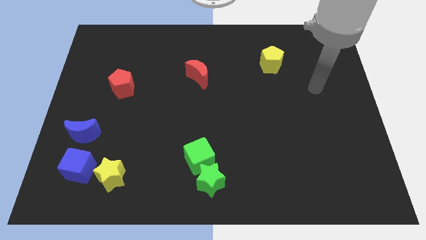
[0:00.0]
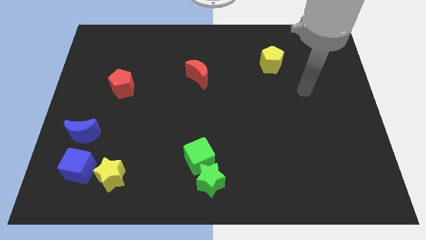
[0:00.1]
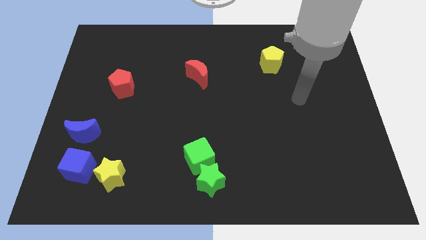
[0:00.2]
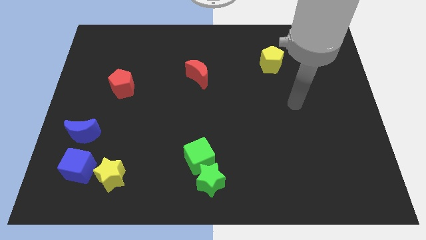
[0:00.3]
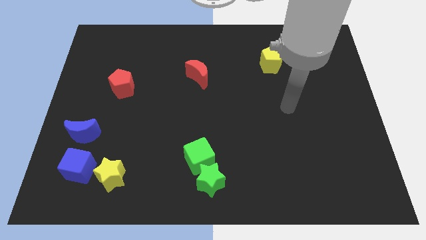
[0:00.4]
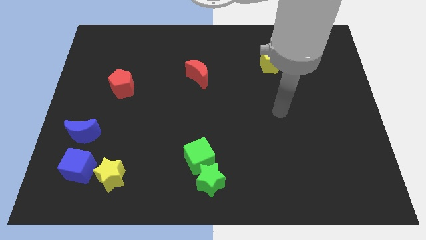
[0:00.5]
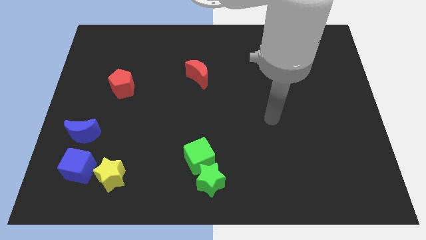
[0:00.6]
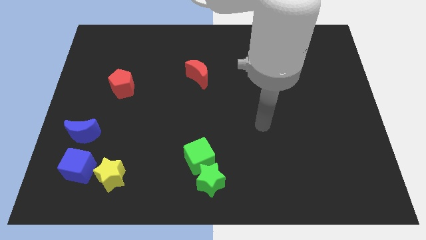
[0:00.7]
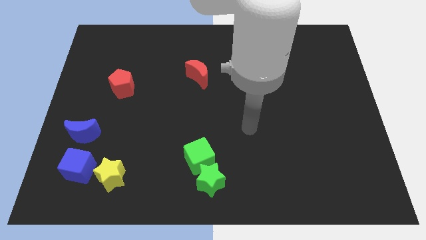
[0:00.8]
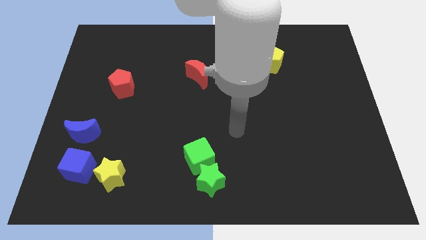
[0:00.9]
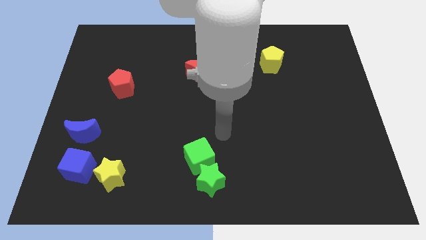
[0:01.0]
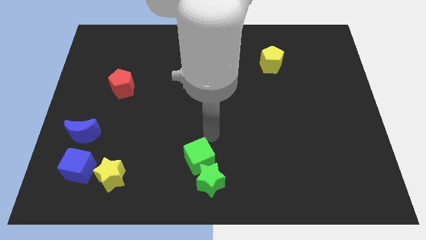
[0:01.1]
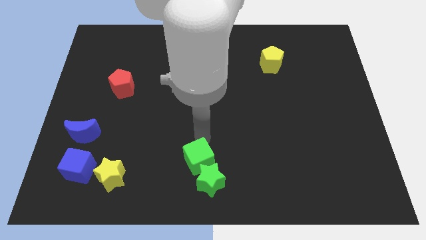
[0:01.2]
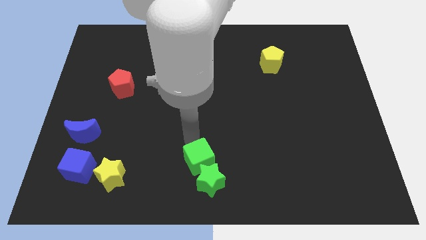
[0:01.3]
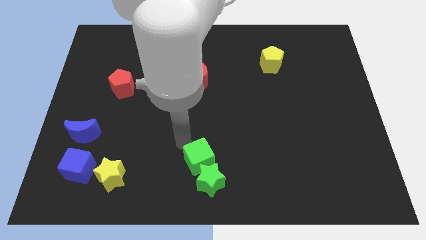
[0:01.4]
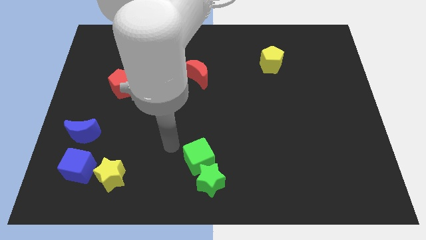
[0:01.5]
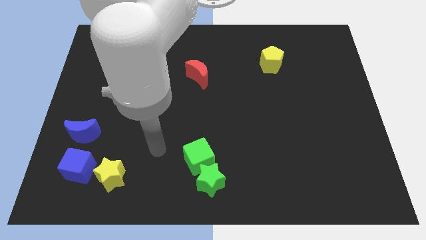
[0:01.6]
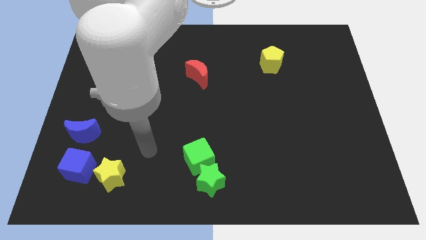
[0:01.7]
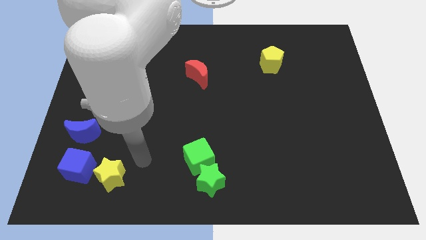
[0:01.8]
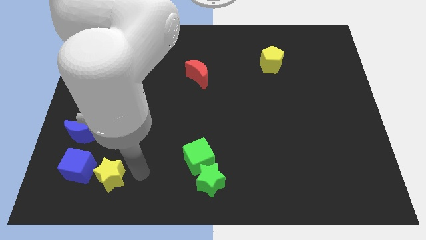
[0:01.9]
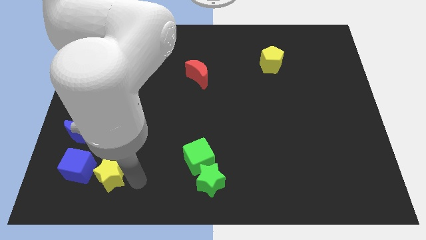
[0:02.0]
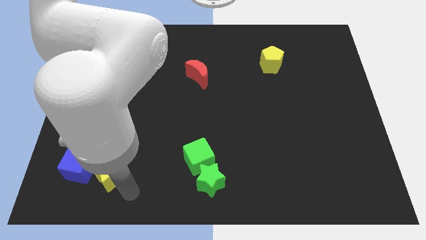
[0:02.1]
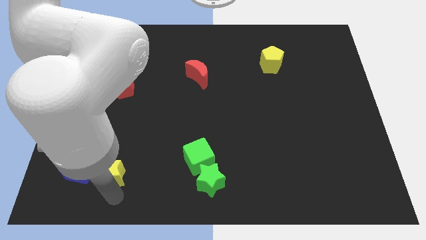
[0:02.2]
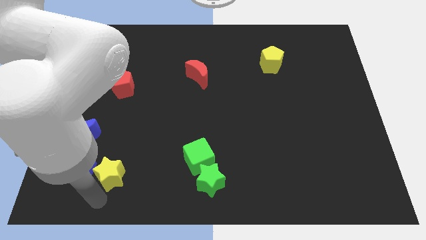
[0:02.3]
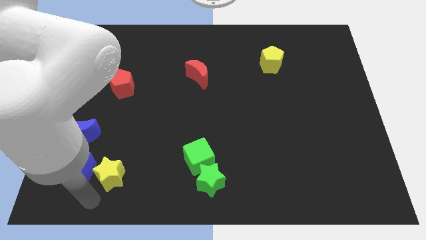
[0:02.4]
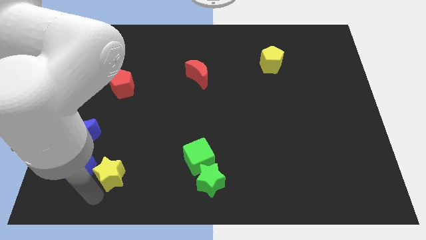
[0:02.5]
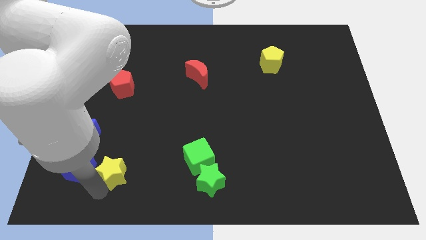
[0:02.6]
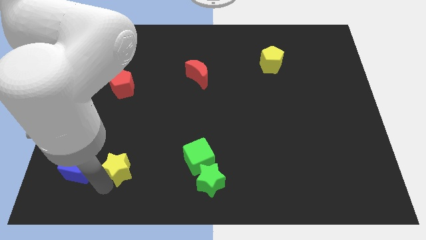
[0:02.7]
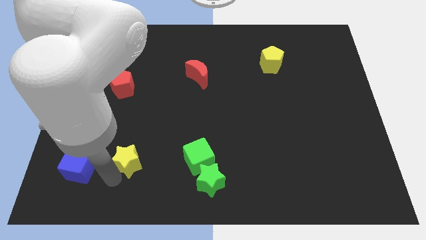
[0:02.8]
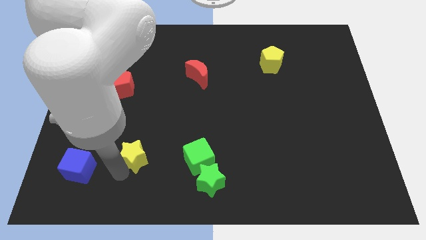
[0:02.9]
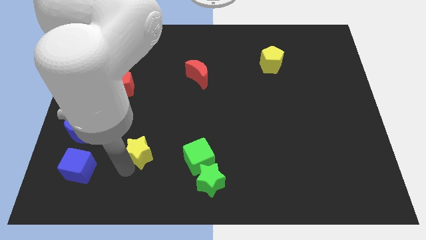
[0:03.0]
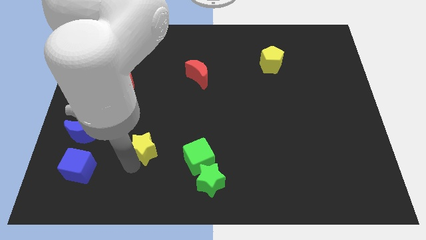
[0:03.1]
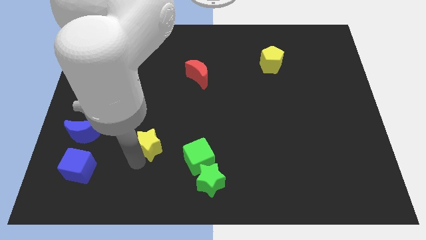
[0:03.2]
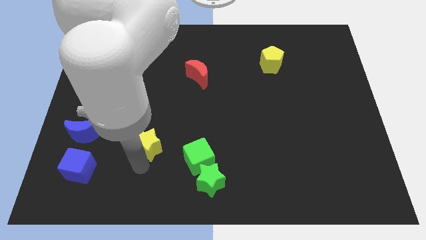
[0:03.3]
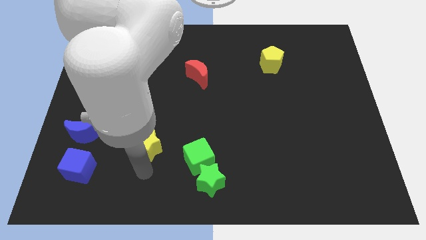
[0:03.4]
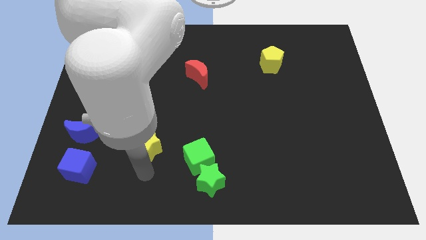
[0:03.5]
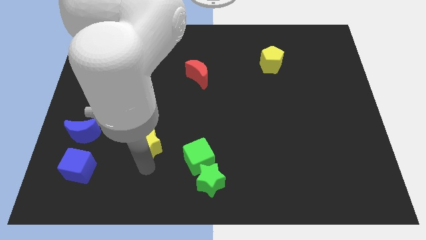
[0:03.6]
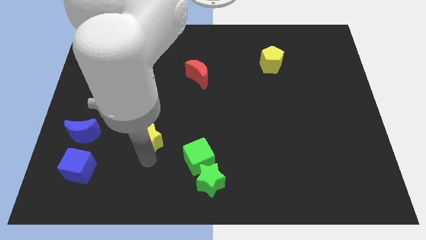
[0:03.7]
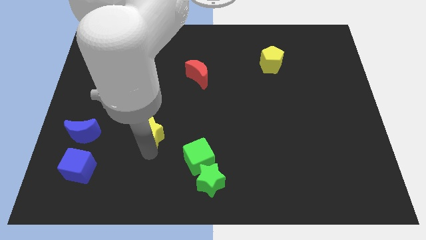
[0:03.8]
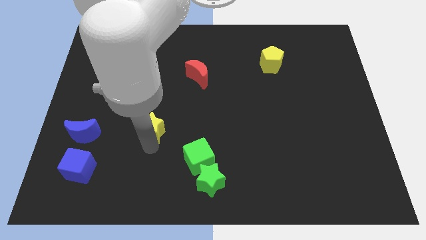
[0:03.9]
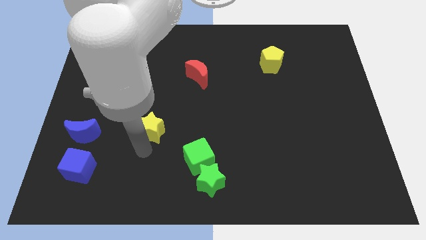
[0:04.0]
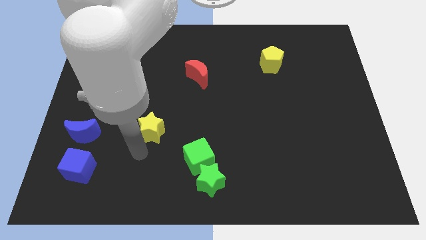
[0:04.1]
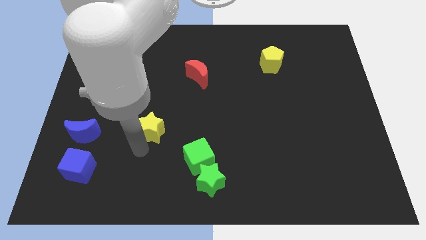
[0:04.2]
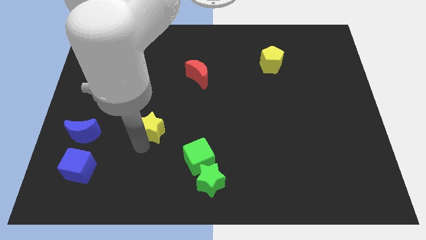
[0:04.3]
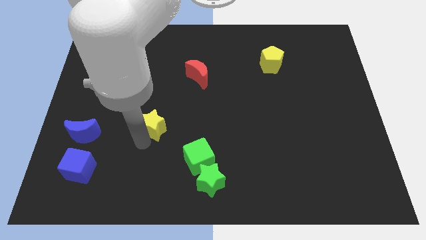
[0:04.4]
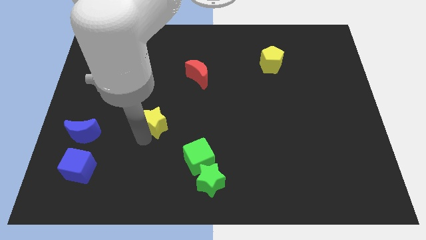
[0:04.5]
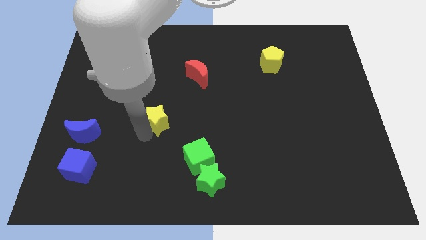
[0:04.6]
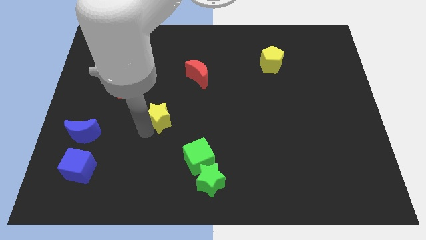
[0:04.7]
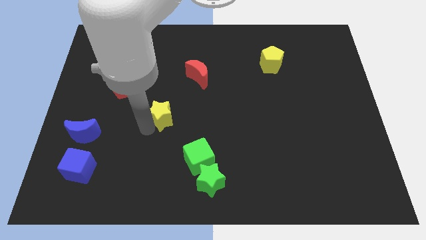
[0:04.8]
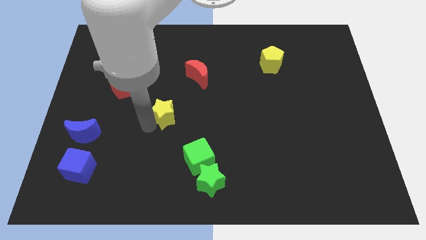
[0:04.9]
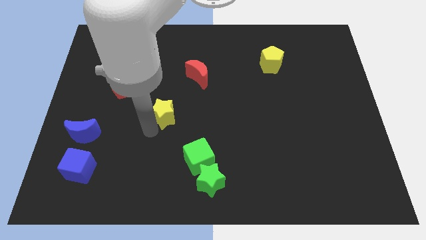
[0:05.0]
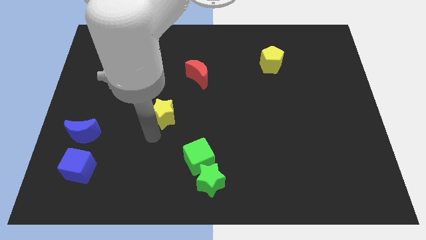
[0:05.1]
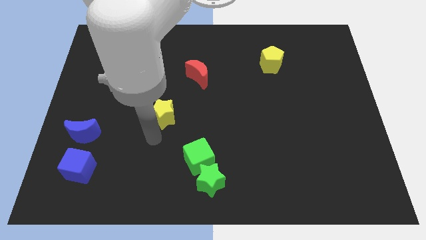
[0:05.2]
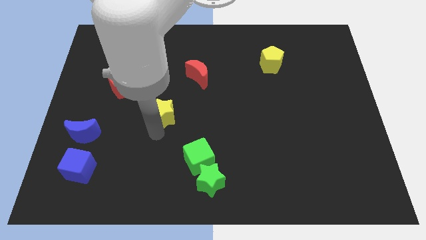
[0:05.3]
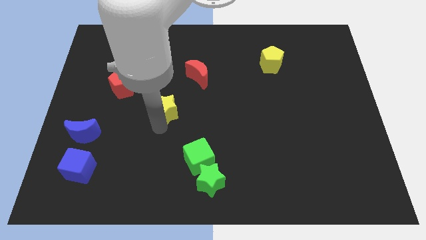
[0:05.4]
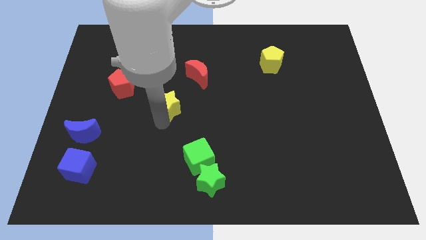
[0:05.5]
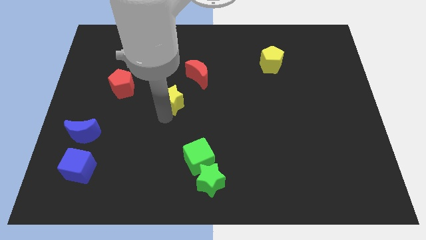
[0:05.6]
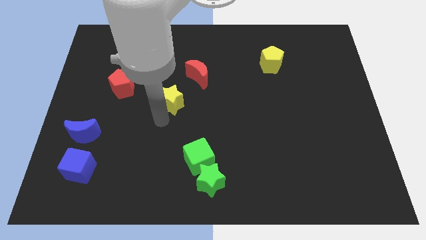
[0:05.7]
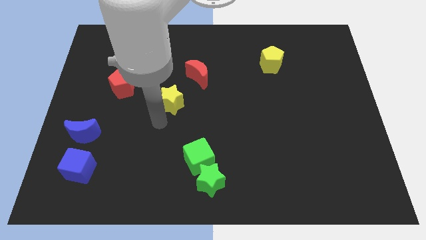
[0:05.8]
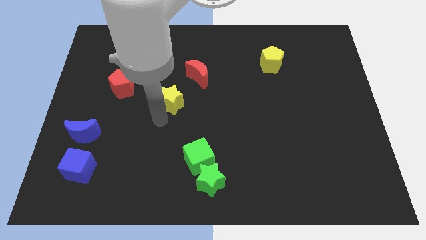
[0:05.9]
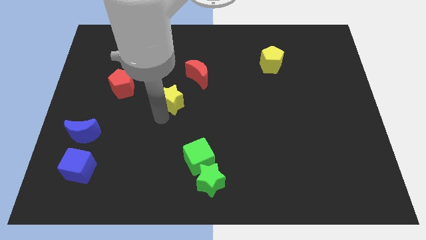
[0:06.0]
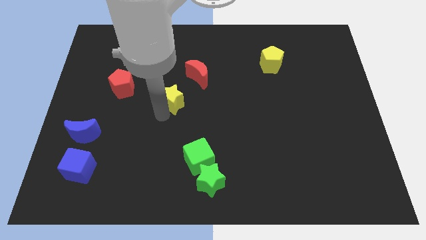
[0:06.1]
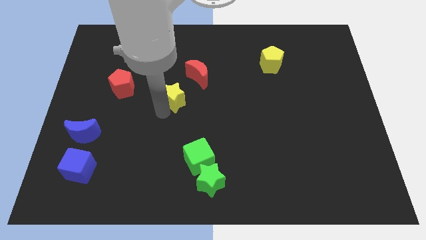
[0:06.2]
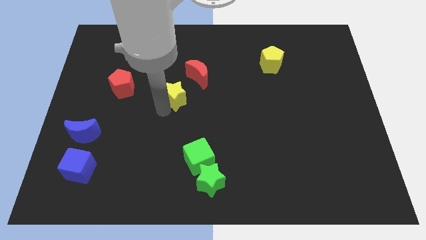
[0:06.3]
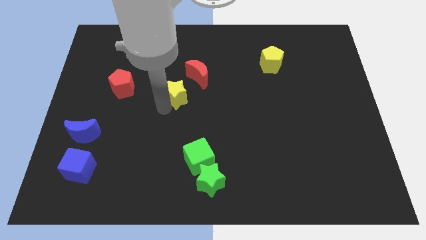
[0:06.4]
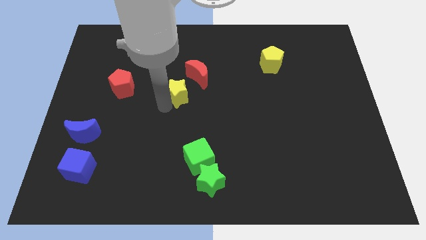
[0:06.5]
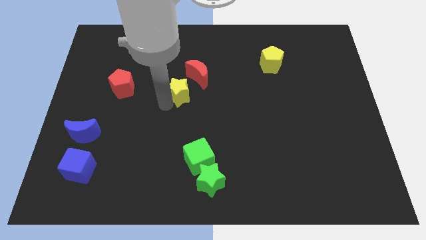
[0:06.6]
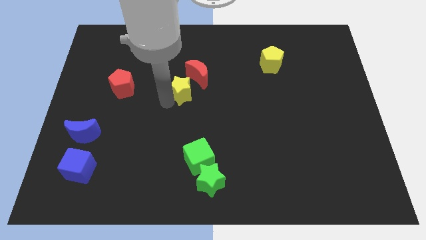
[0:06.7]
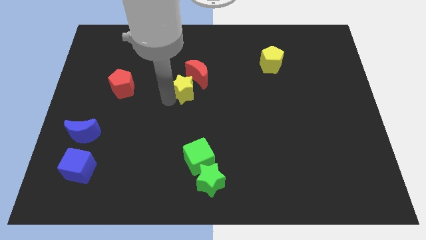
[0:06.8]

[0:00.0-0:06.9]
put the yellow star towards the red moon

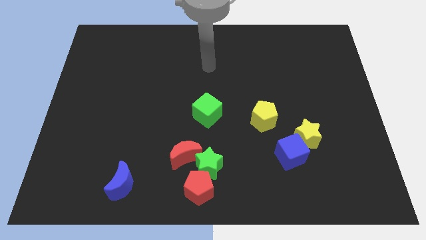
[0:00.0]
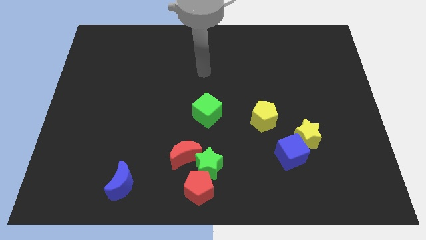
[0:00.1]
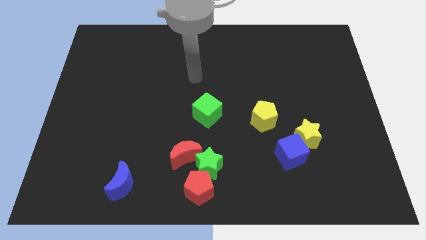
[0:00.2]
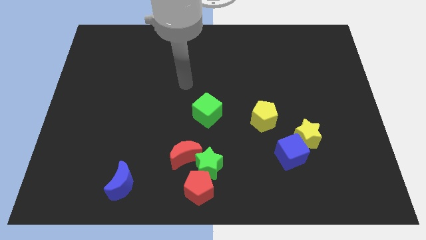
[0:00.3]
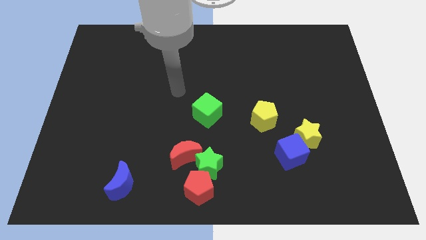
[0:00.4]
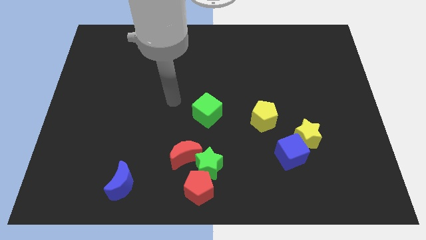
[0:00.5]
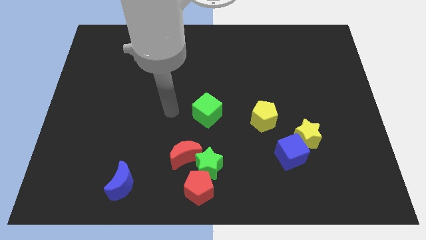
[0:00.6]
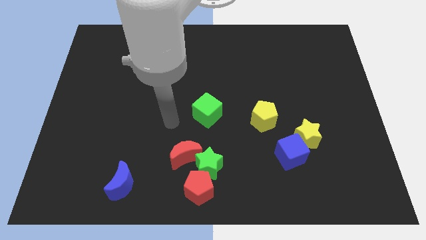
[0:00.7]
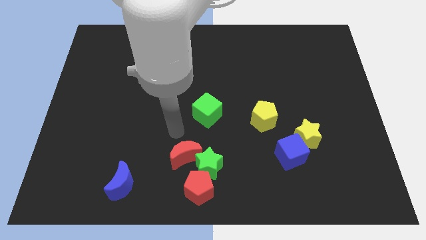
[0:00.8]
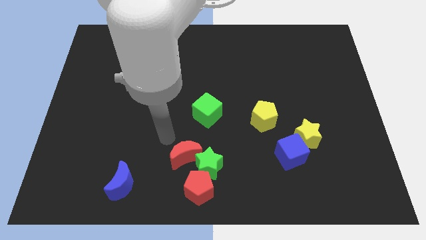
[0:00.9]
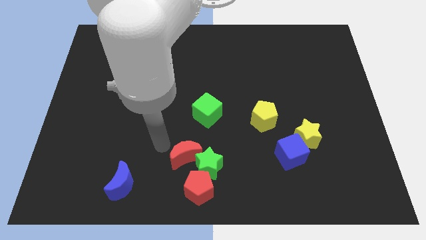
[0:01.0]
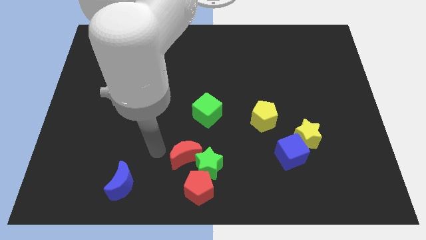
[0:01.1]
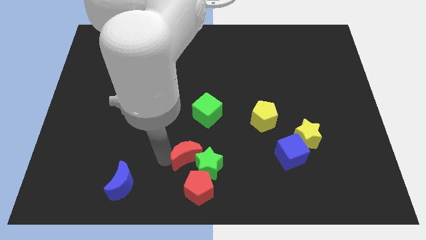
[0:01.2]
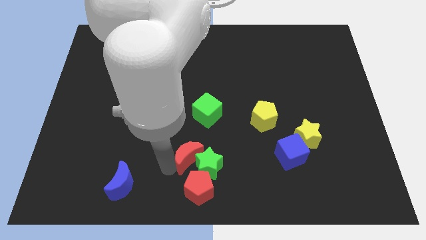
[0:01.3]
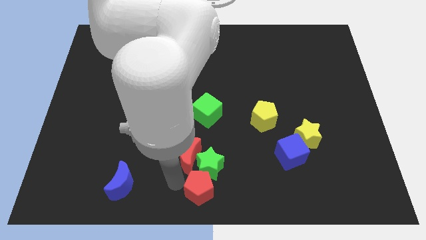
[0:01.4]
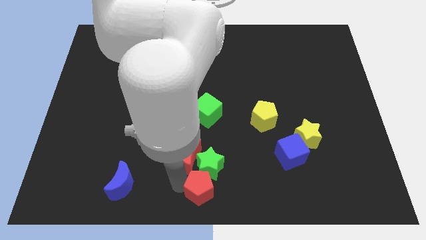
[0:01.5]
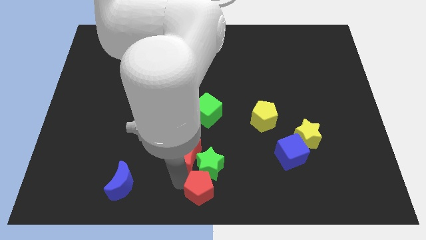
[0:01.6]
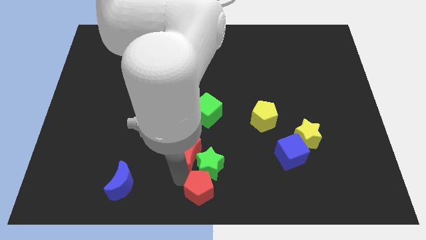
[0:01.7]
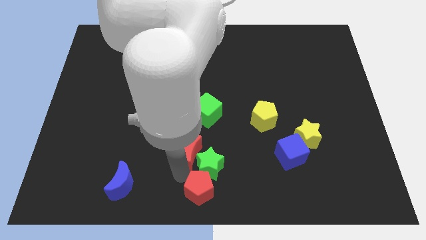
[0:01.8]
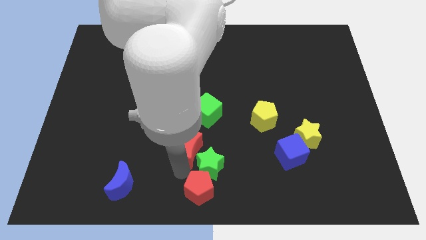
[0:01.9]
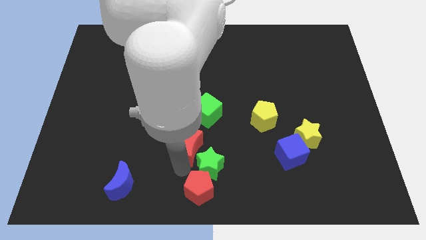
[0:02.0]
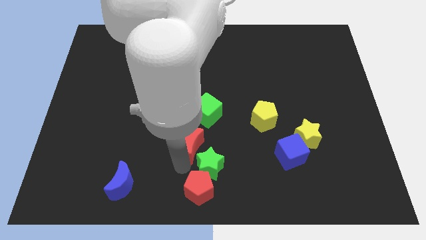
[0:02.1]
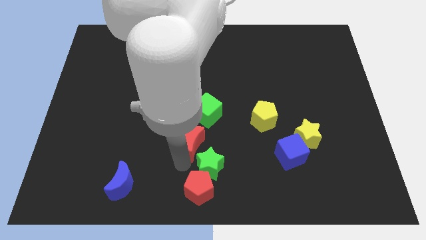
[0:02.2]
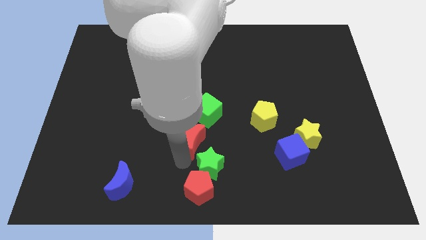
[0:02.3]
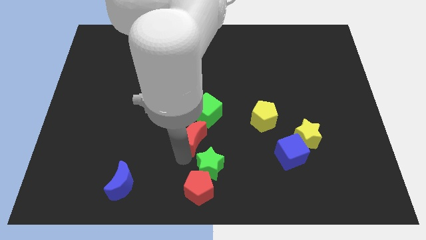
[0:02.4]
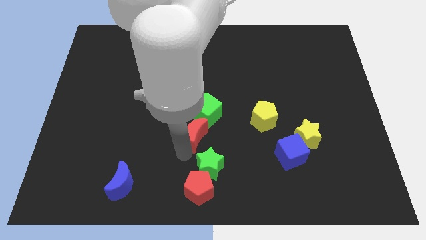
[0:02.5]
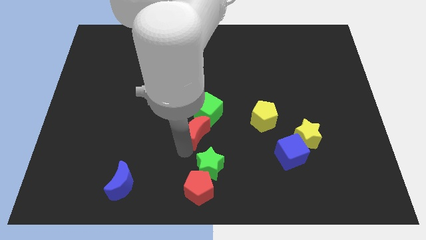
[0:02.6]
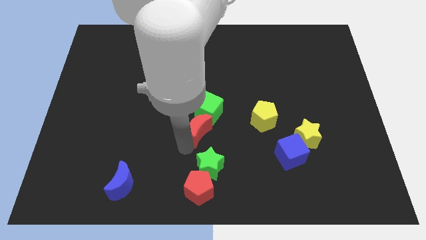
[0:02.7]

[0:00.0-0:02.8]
push the red moon next to the green cube
